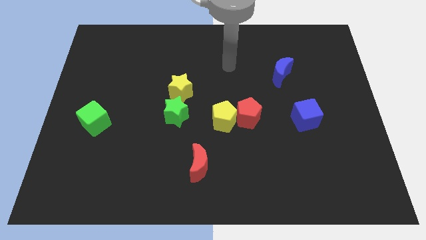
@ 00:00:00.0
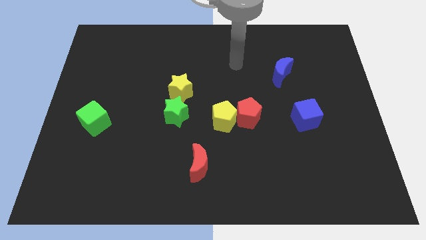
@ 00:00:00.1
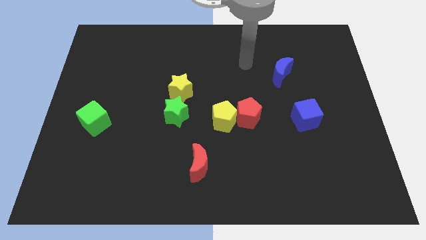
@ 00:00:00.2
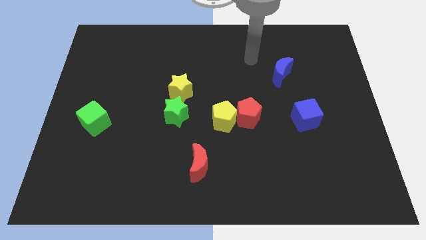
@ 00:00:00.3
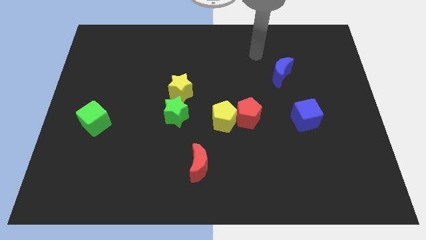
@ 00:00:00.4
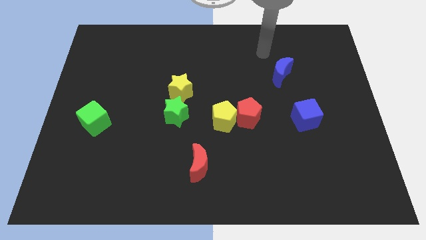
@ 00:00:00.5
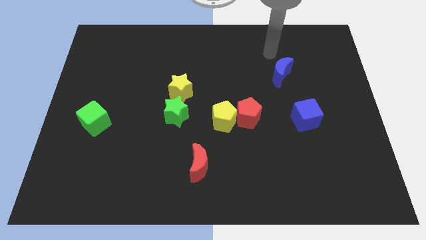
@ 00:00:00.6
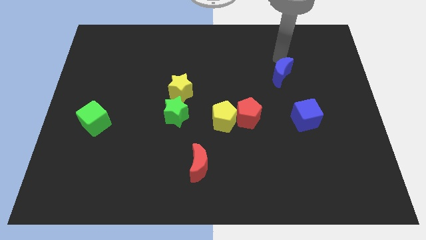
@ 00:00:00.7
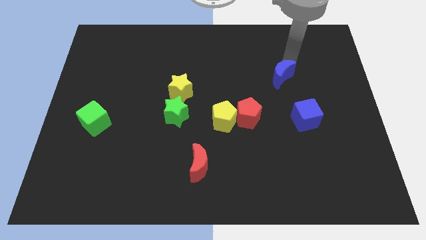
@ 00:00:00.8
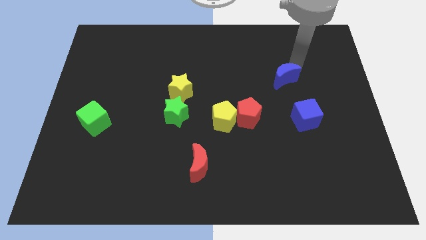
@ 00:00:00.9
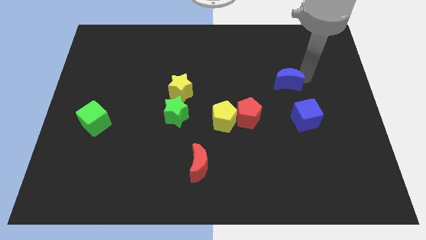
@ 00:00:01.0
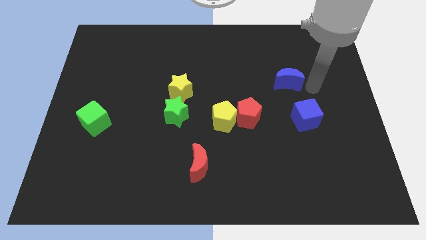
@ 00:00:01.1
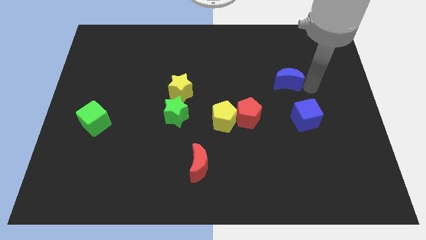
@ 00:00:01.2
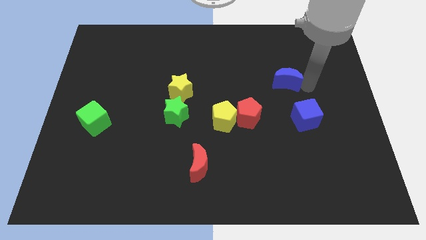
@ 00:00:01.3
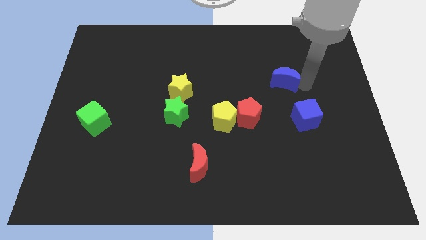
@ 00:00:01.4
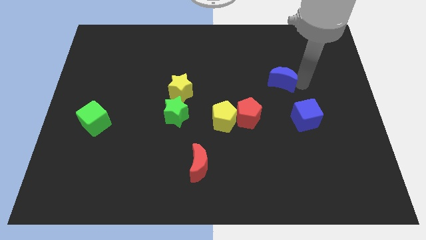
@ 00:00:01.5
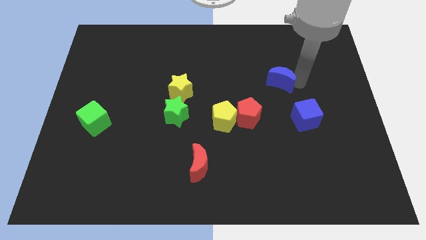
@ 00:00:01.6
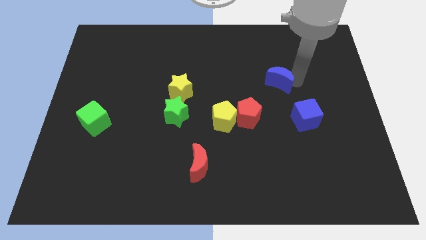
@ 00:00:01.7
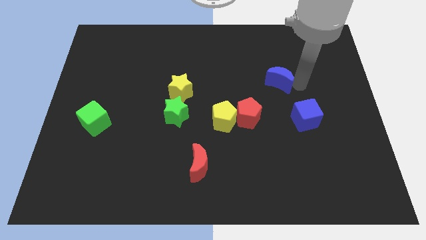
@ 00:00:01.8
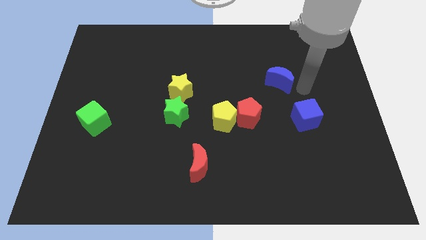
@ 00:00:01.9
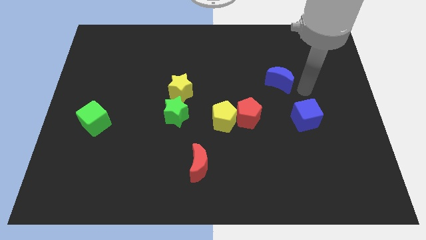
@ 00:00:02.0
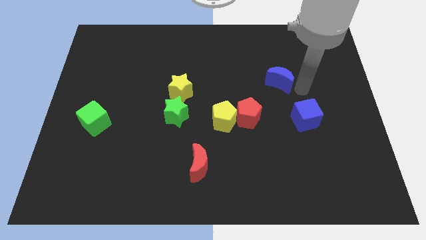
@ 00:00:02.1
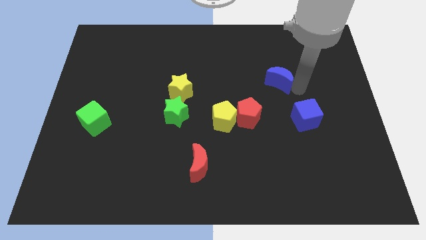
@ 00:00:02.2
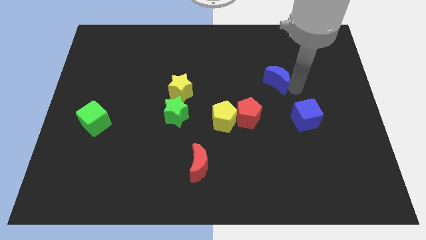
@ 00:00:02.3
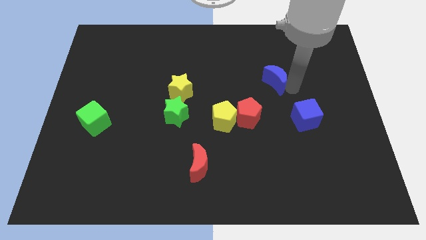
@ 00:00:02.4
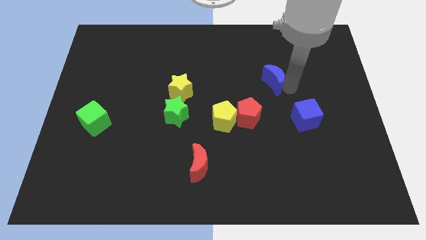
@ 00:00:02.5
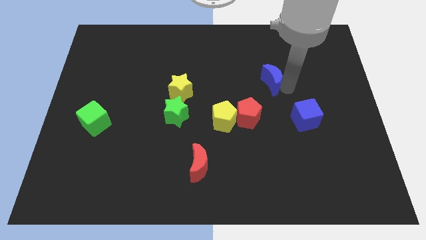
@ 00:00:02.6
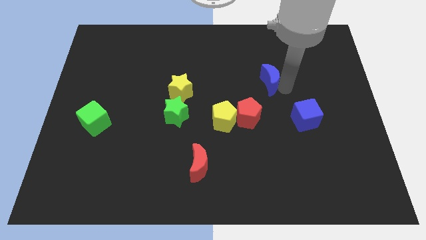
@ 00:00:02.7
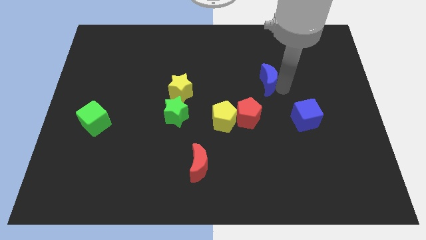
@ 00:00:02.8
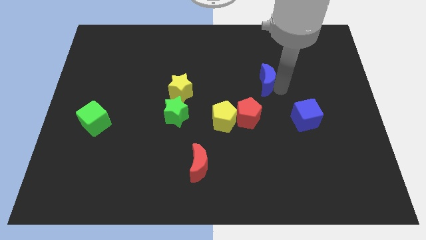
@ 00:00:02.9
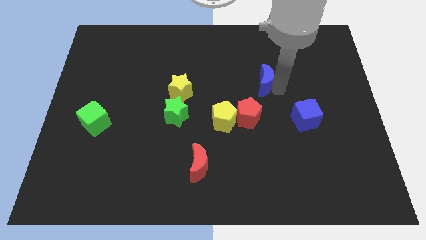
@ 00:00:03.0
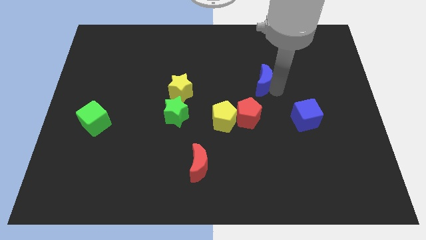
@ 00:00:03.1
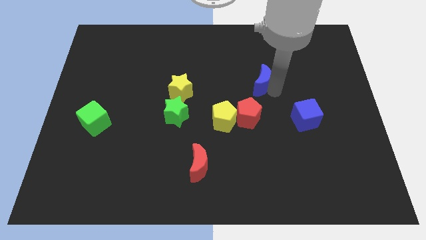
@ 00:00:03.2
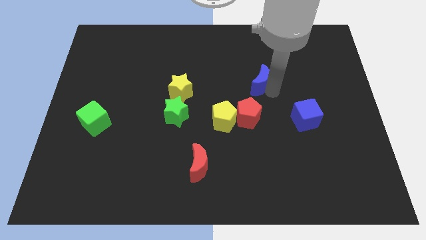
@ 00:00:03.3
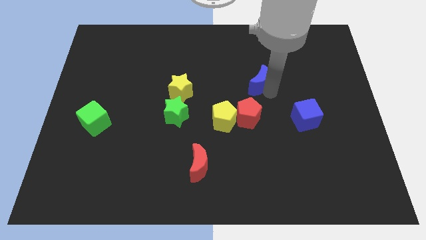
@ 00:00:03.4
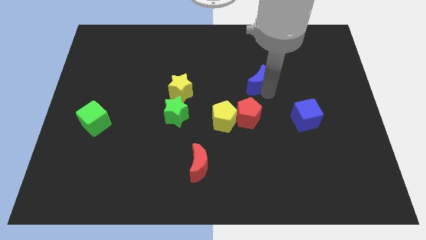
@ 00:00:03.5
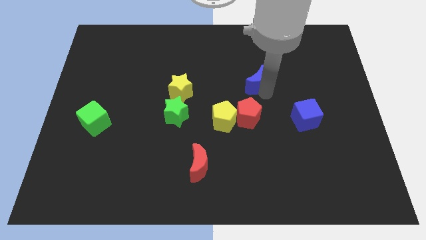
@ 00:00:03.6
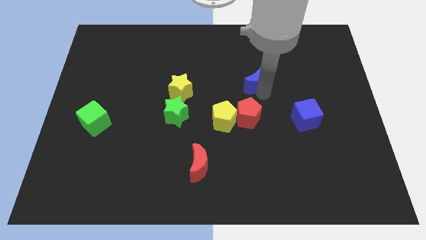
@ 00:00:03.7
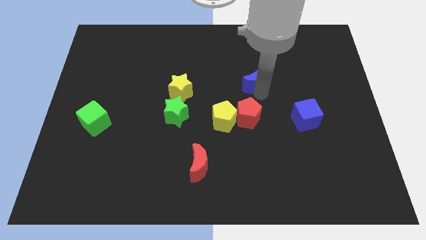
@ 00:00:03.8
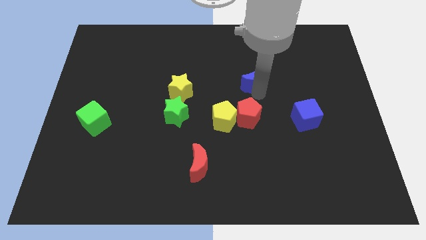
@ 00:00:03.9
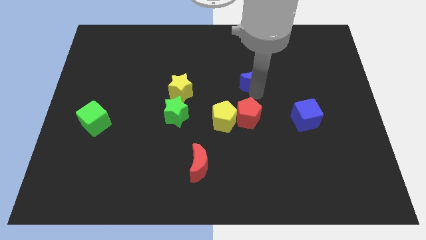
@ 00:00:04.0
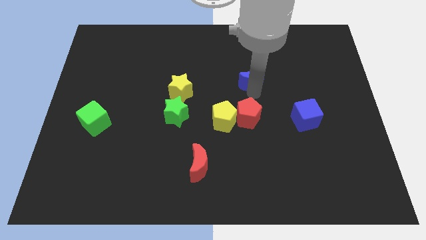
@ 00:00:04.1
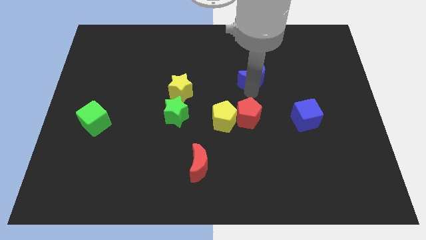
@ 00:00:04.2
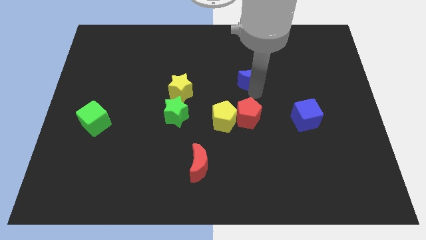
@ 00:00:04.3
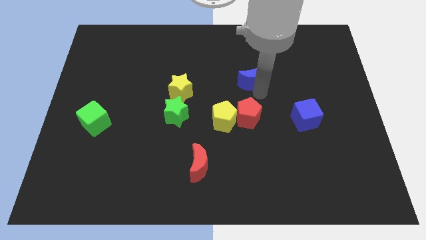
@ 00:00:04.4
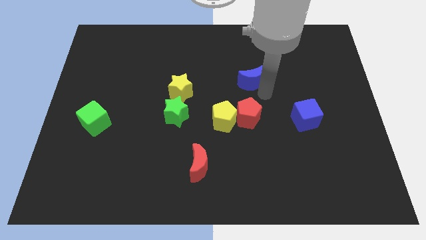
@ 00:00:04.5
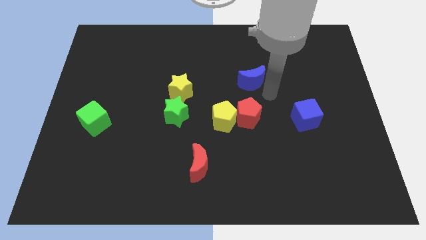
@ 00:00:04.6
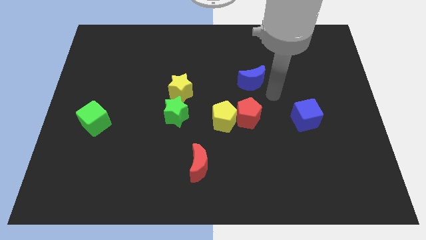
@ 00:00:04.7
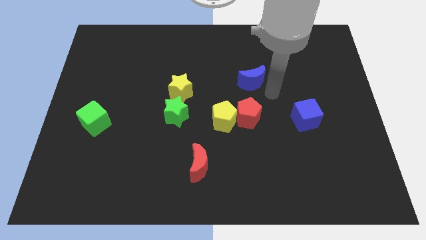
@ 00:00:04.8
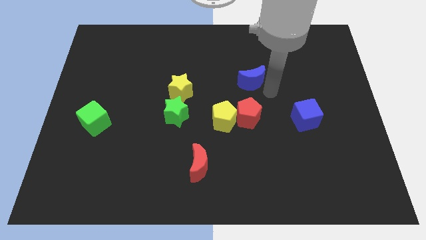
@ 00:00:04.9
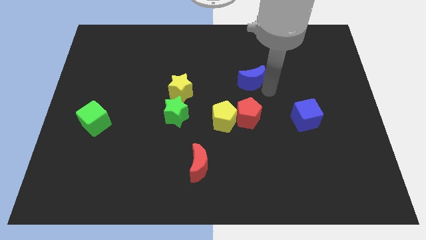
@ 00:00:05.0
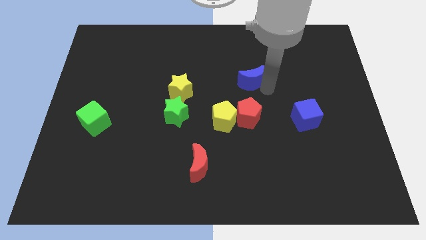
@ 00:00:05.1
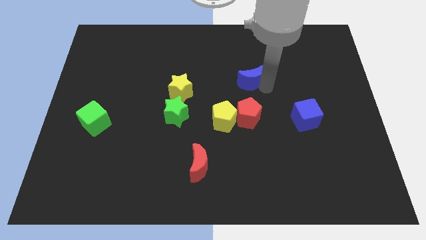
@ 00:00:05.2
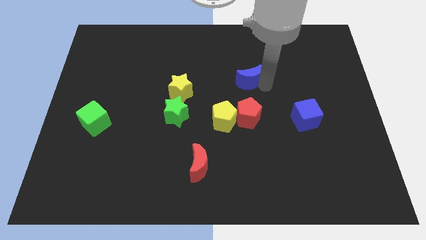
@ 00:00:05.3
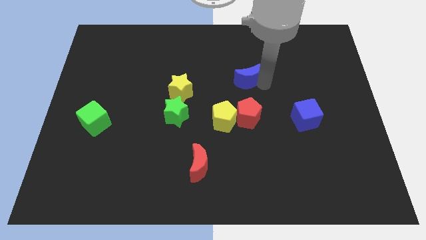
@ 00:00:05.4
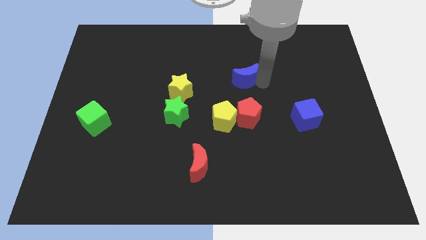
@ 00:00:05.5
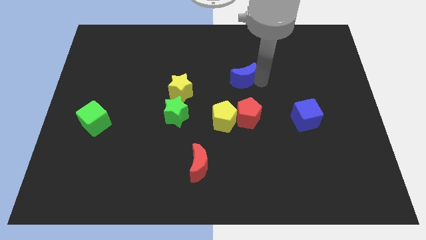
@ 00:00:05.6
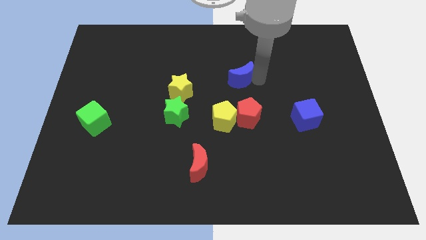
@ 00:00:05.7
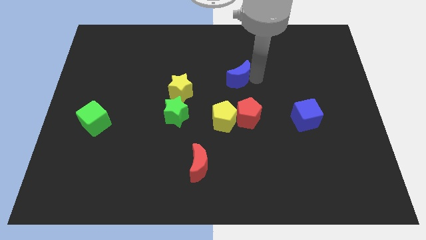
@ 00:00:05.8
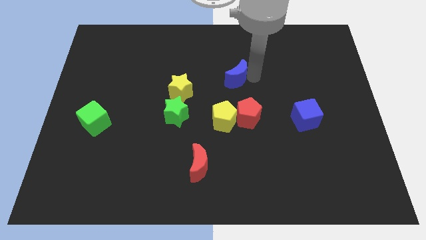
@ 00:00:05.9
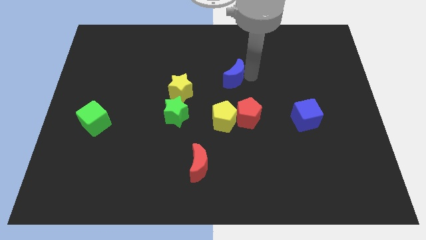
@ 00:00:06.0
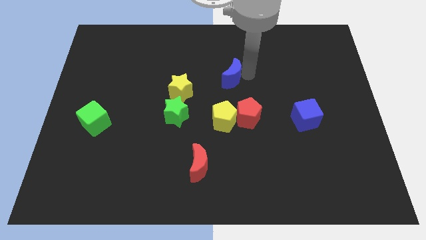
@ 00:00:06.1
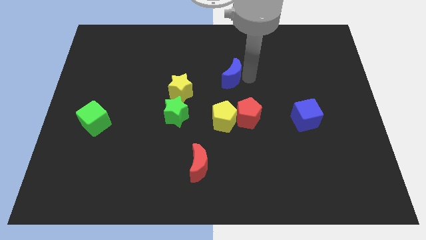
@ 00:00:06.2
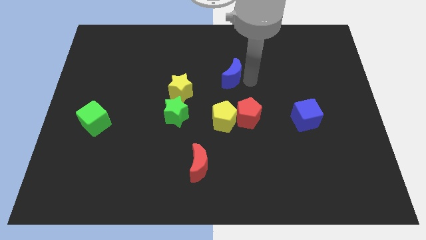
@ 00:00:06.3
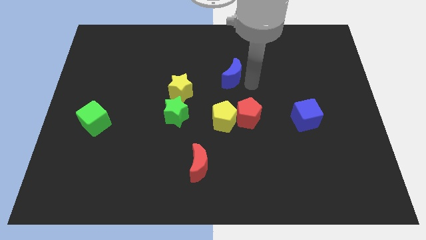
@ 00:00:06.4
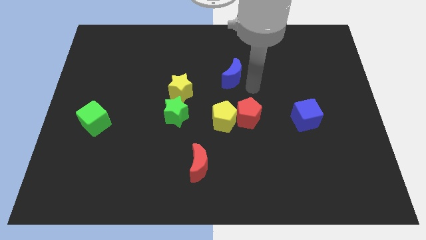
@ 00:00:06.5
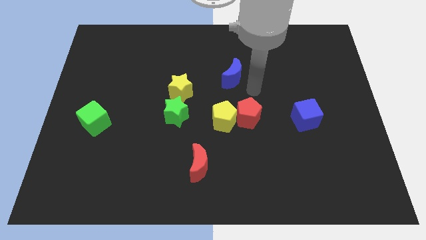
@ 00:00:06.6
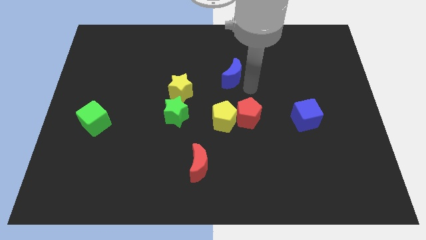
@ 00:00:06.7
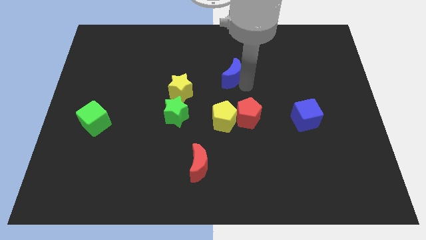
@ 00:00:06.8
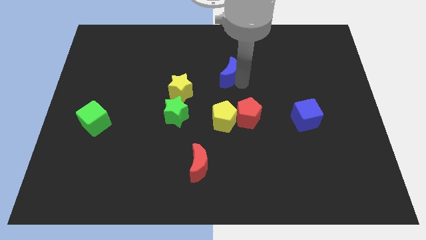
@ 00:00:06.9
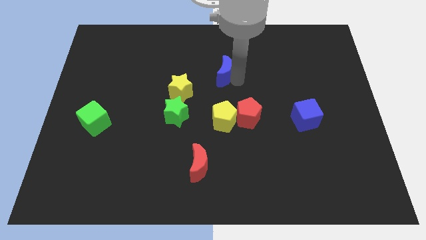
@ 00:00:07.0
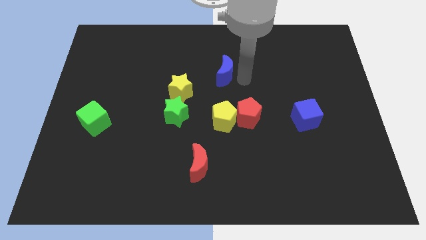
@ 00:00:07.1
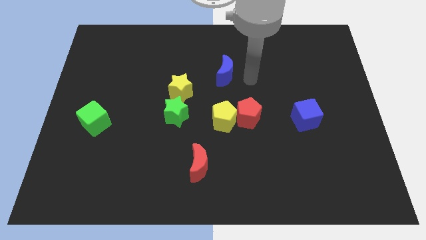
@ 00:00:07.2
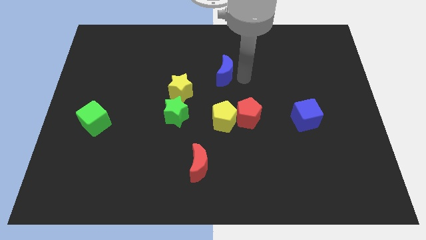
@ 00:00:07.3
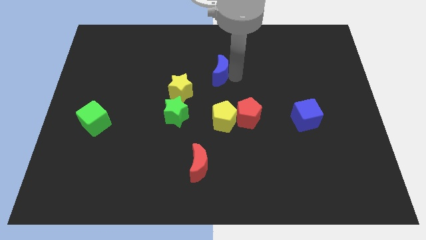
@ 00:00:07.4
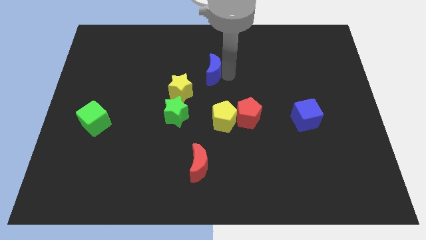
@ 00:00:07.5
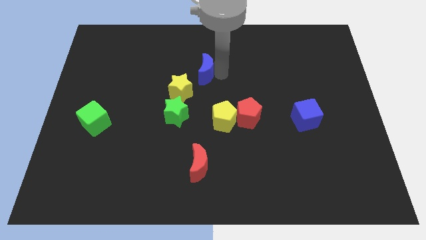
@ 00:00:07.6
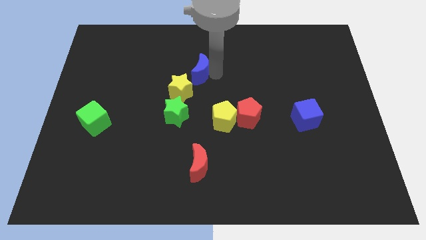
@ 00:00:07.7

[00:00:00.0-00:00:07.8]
slide the blue moon to the left

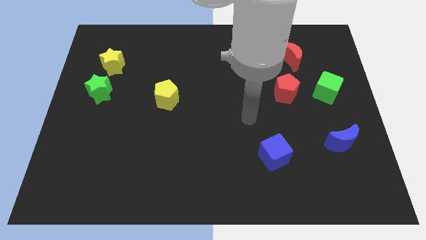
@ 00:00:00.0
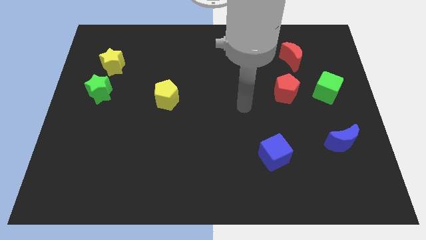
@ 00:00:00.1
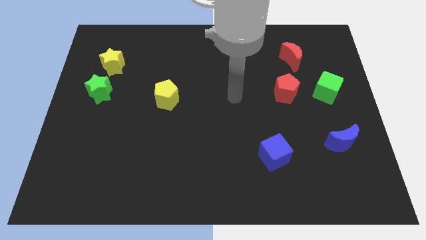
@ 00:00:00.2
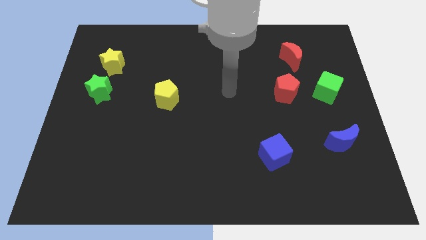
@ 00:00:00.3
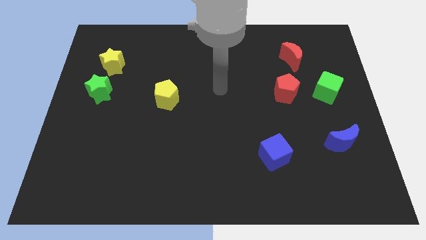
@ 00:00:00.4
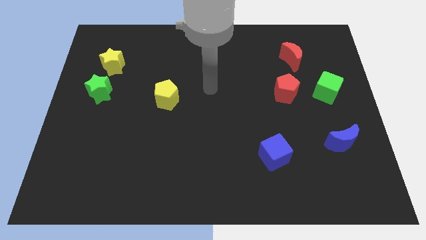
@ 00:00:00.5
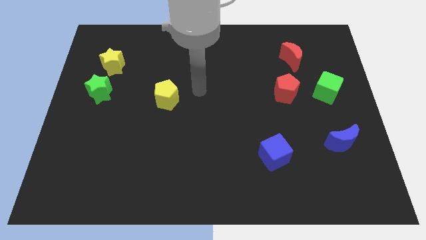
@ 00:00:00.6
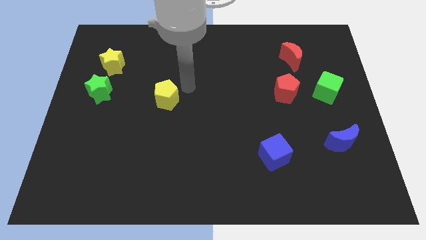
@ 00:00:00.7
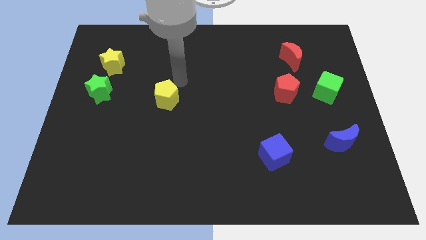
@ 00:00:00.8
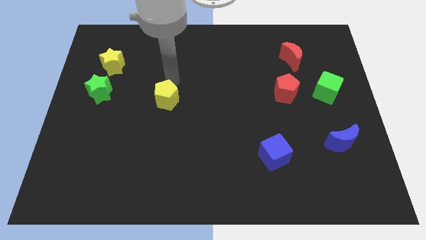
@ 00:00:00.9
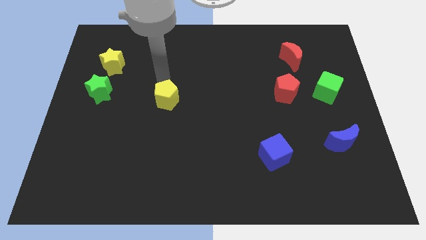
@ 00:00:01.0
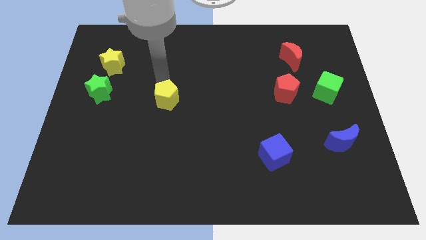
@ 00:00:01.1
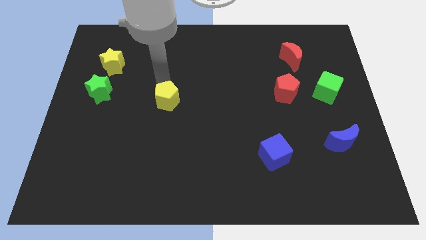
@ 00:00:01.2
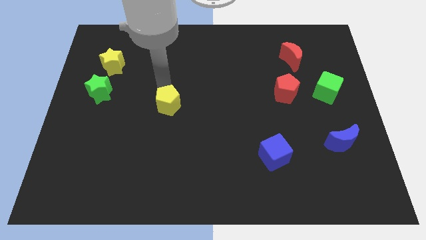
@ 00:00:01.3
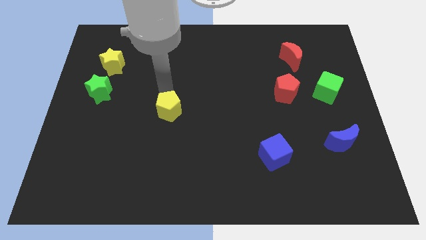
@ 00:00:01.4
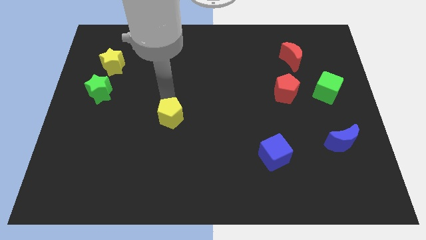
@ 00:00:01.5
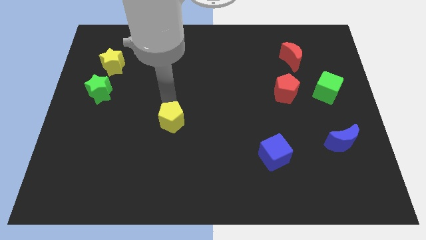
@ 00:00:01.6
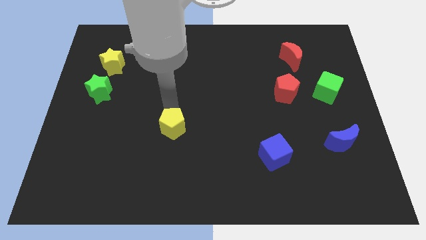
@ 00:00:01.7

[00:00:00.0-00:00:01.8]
slide the yellow pentagon down a little bit
